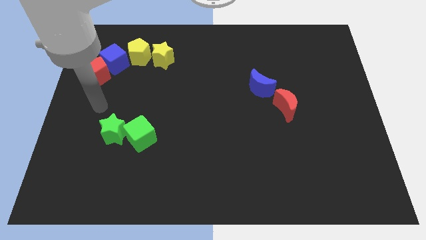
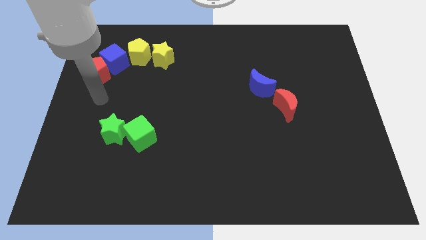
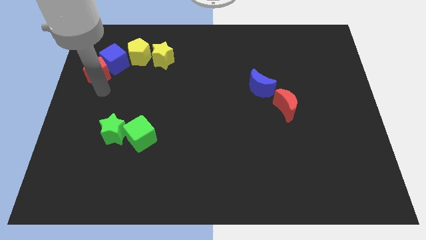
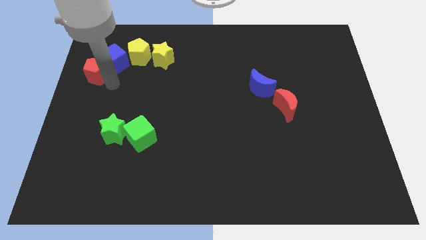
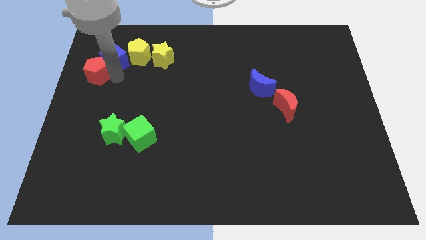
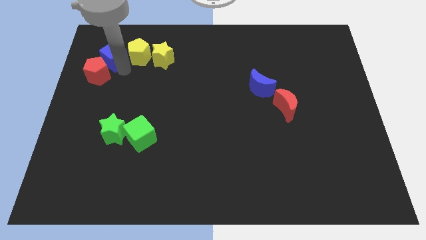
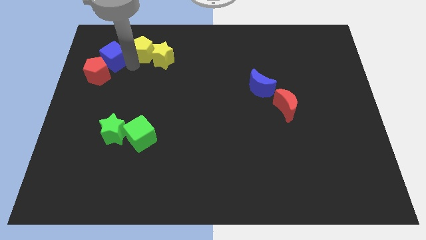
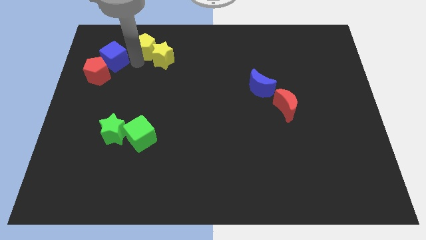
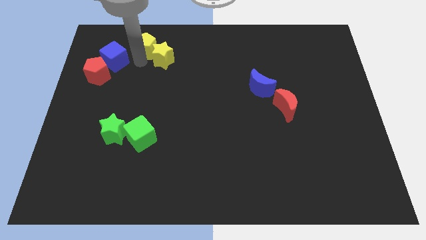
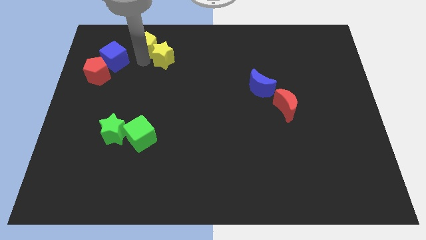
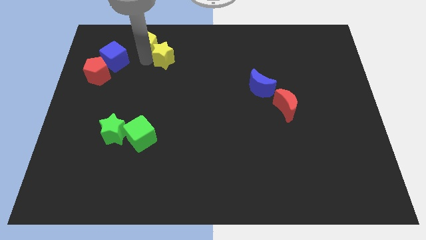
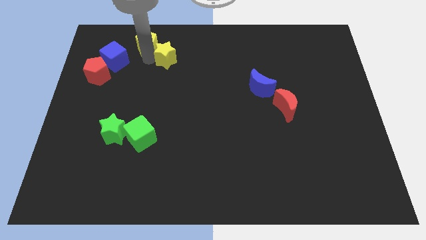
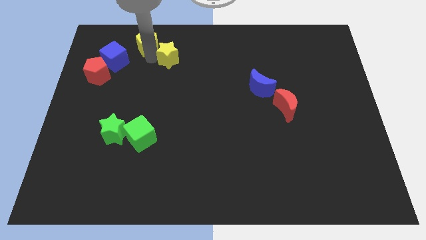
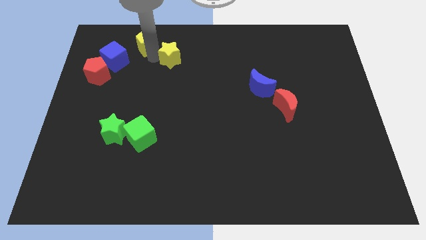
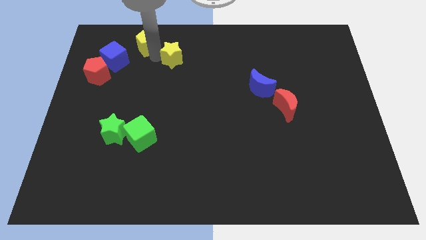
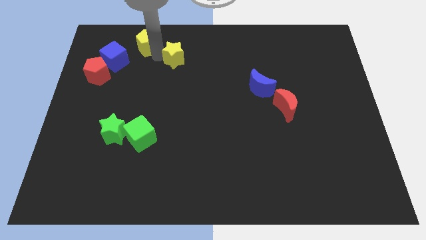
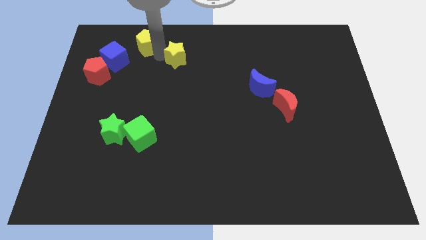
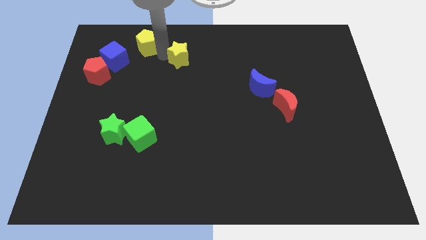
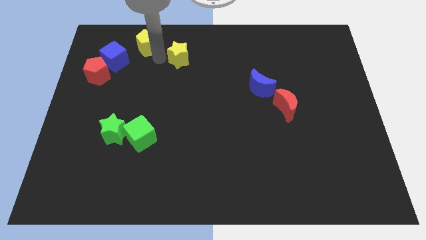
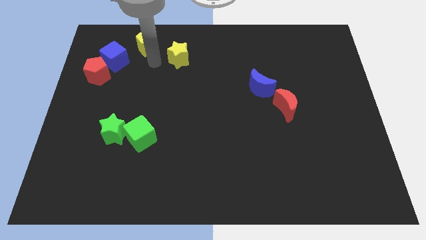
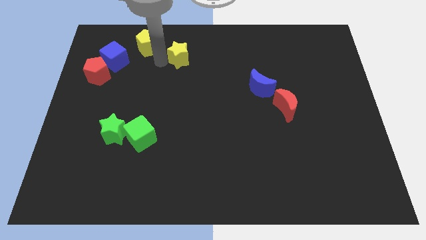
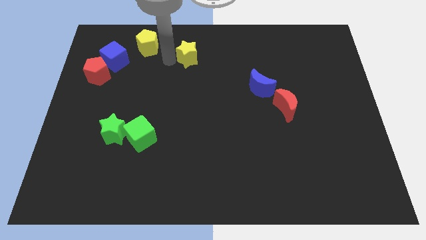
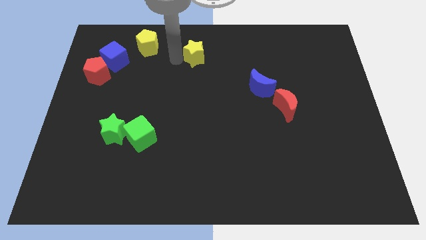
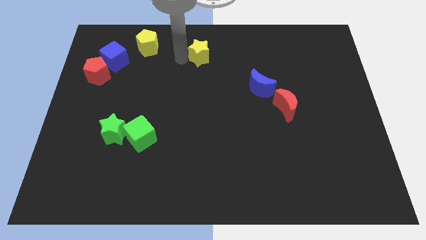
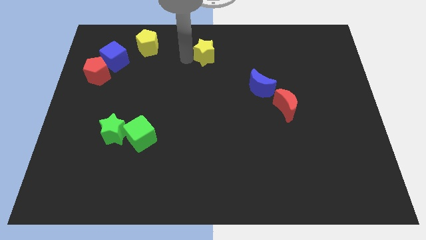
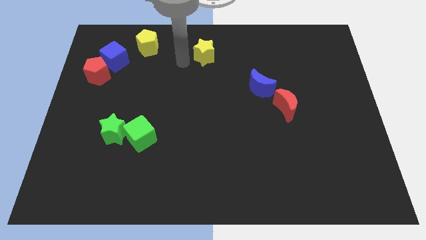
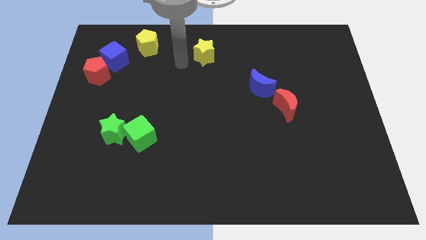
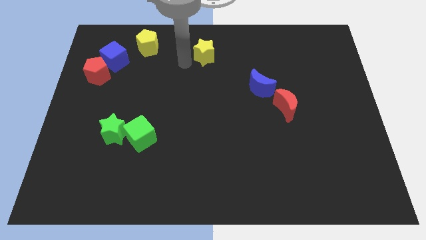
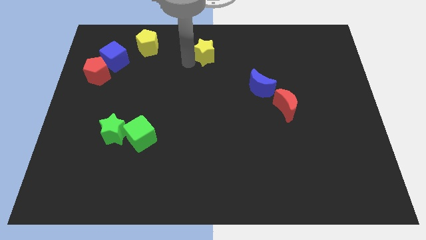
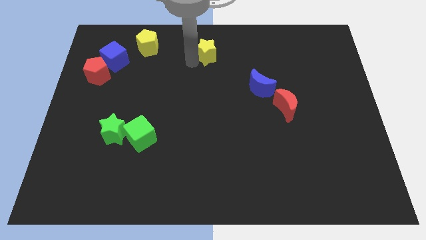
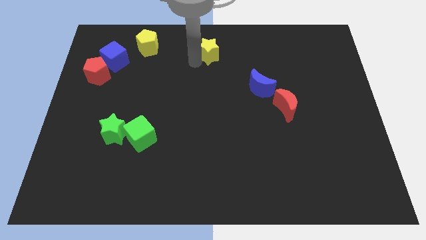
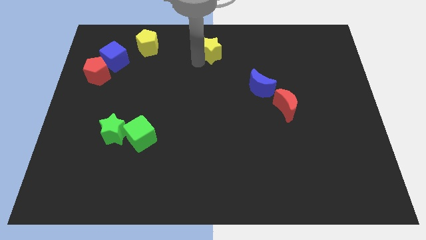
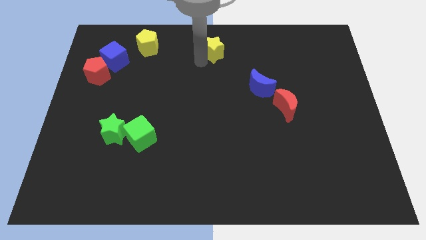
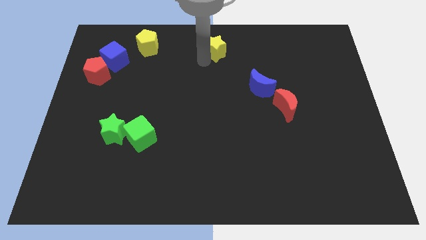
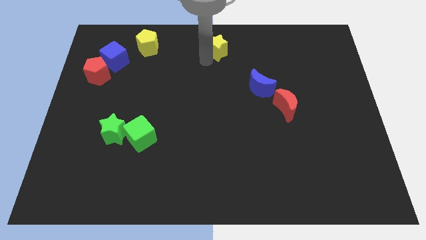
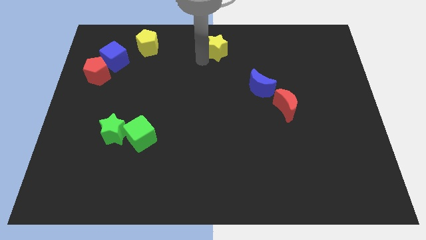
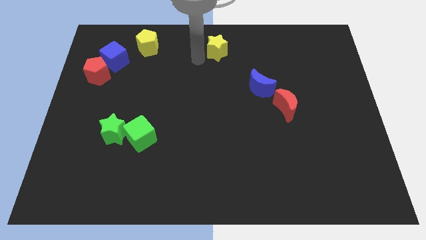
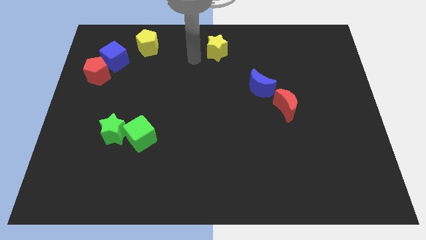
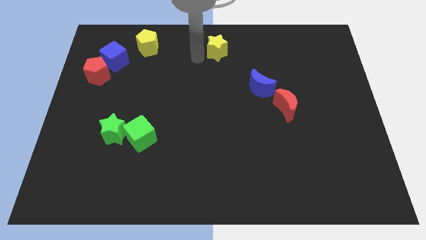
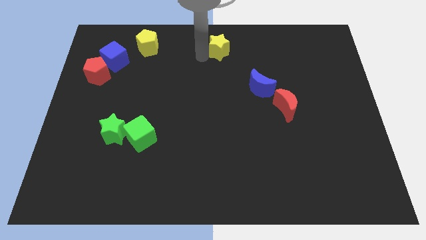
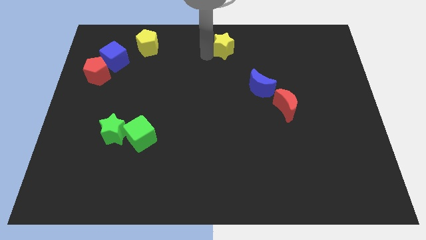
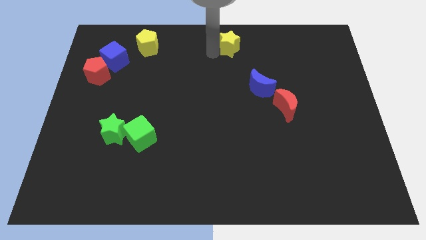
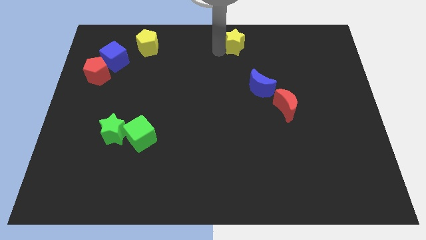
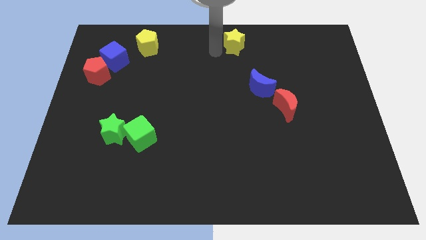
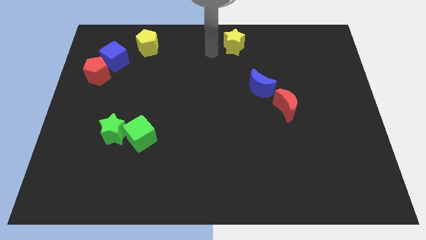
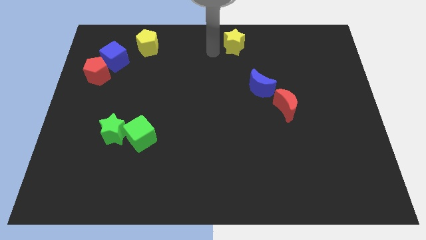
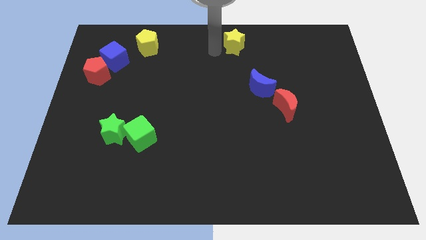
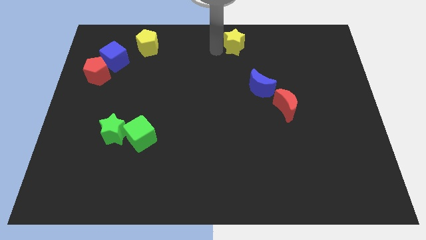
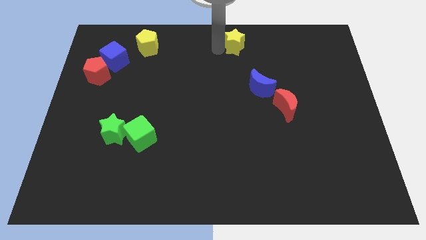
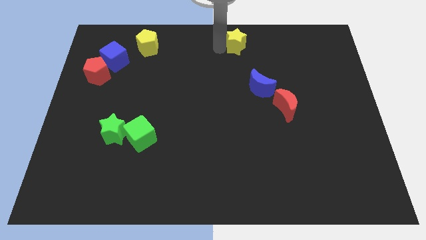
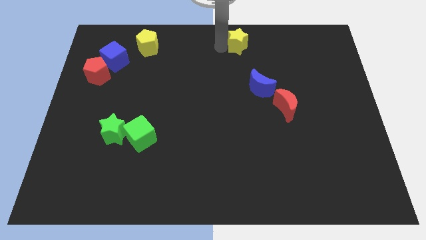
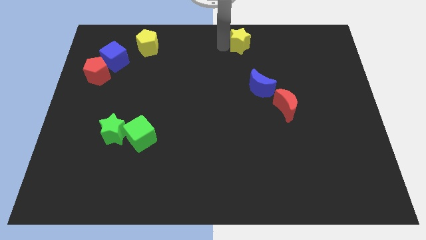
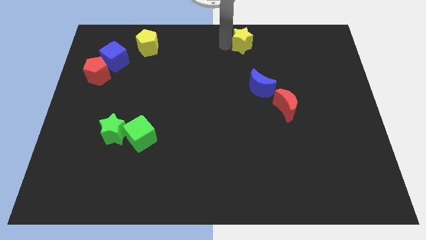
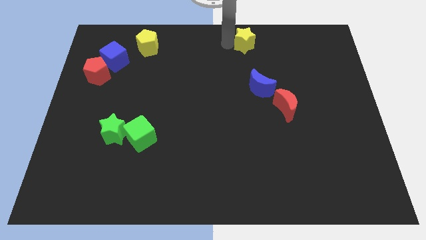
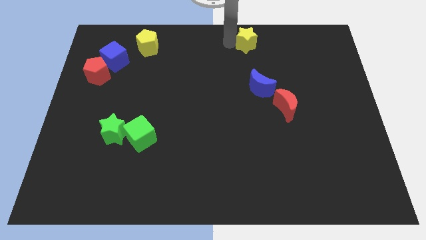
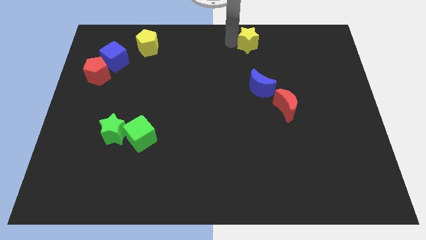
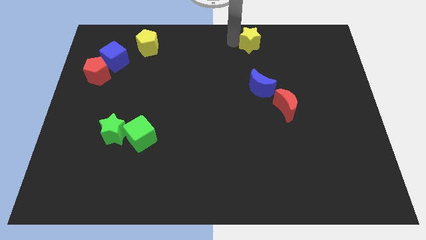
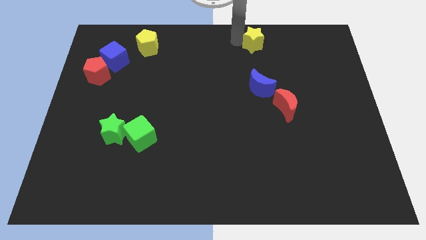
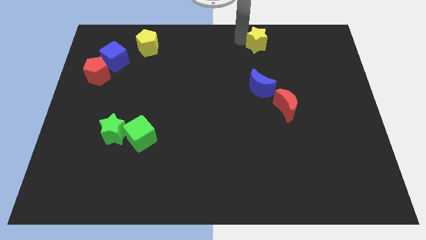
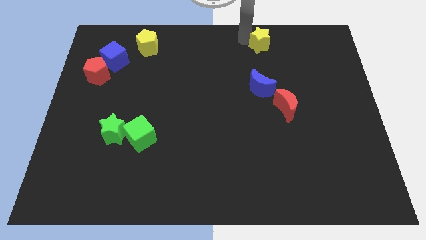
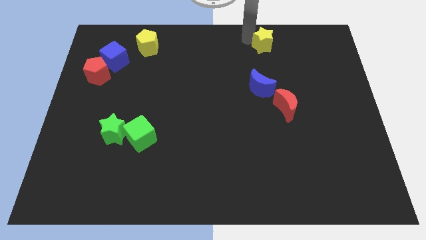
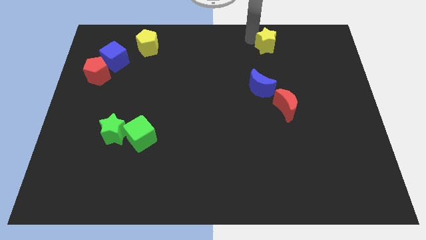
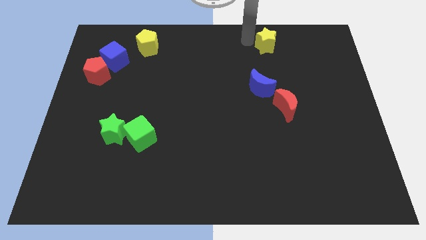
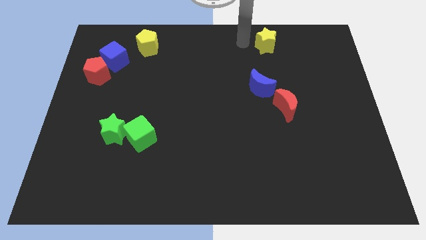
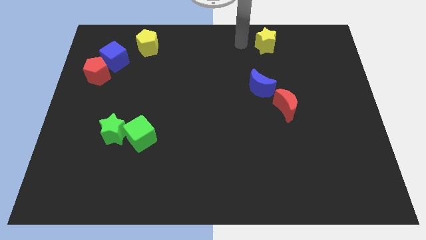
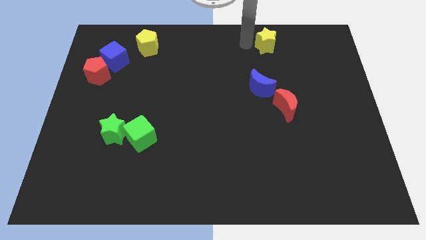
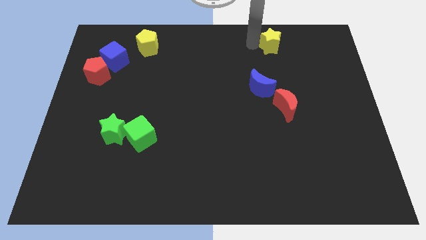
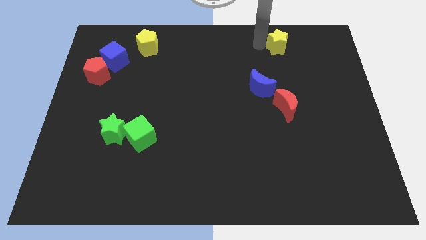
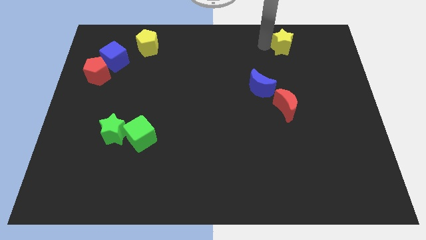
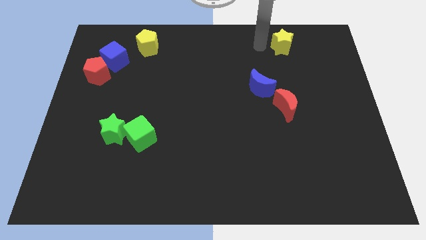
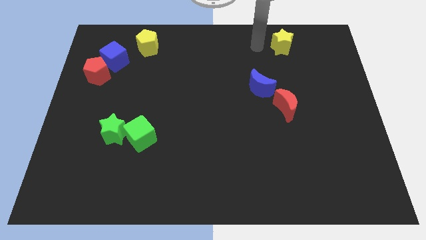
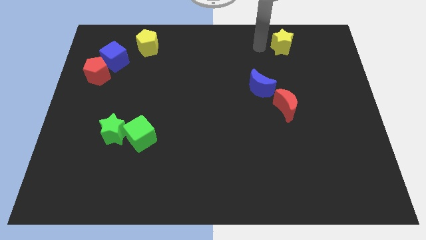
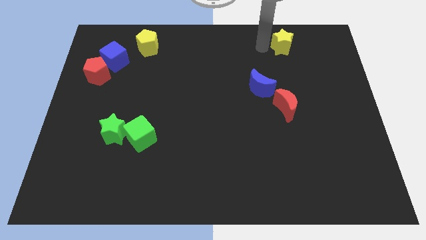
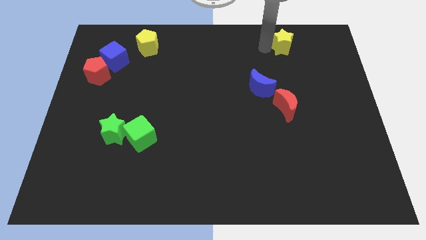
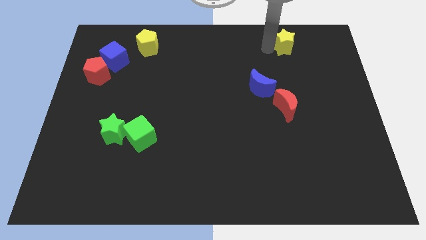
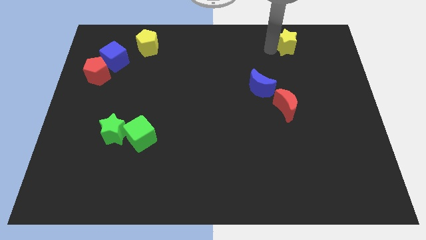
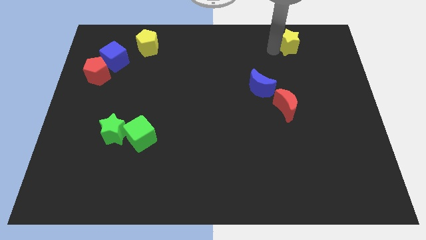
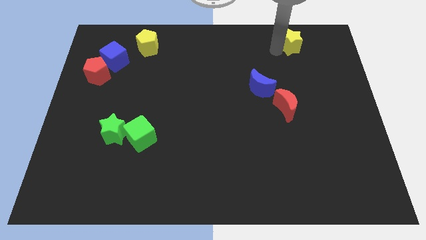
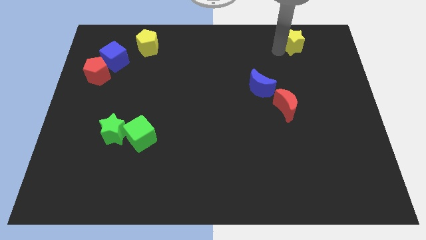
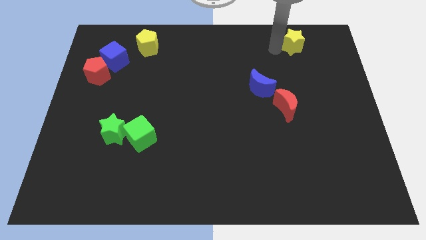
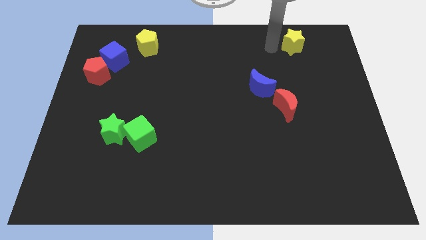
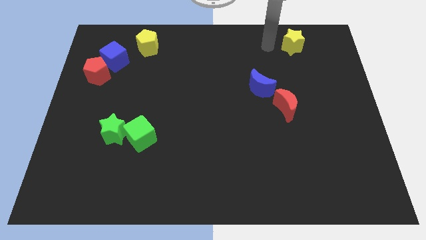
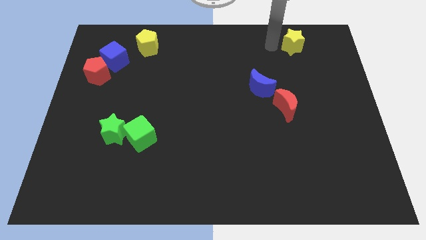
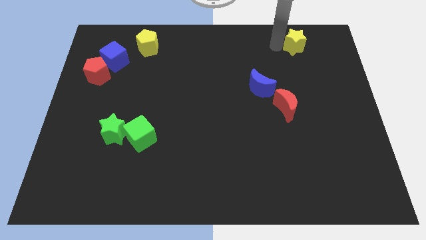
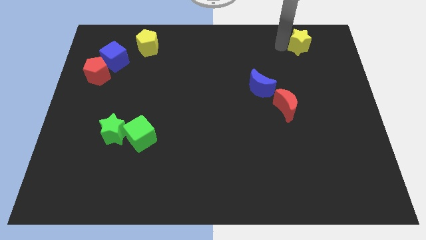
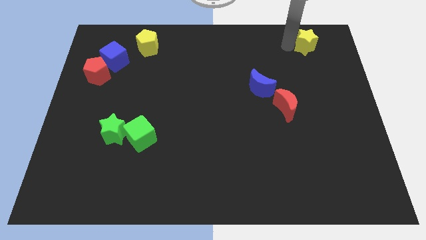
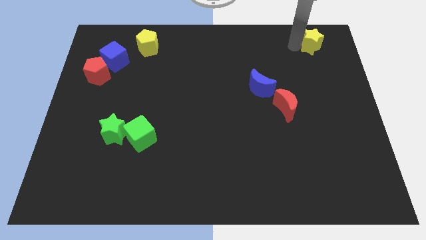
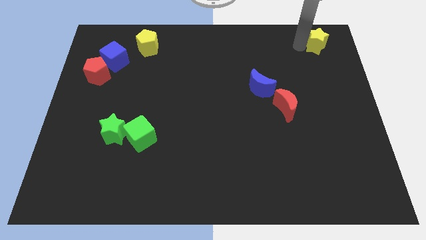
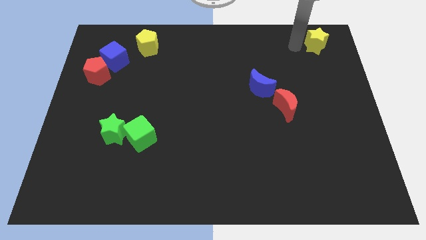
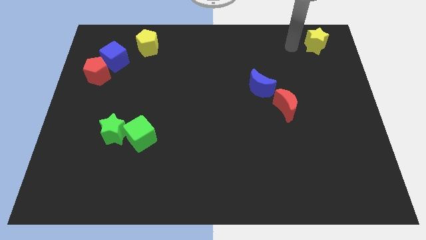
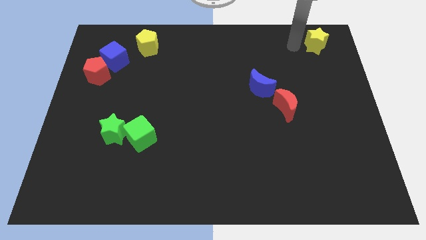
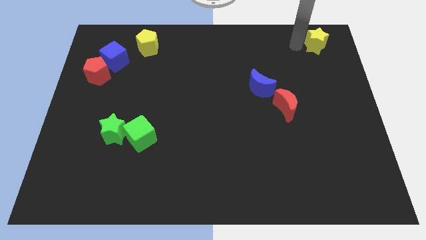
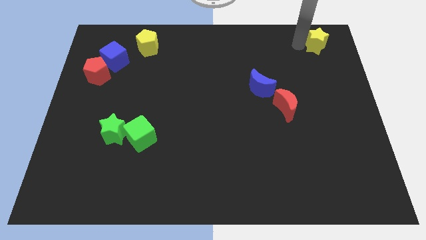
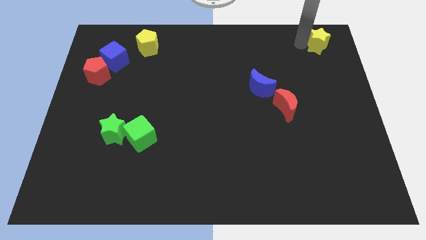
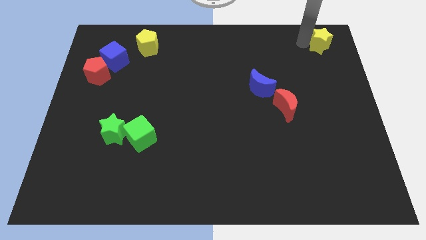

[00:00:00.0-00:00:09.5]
move the yellow star to the top right corner
